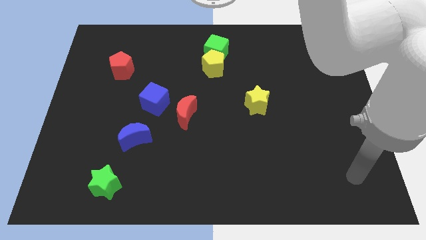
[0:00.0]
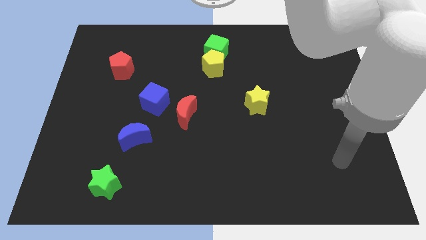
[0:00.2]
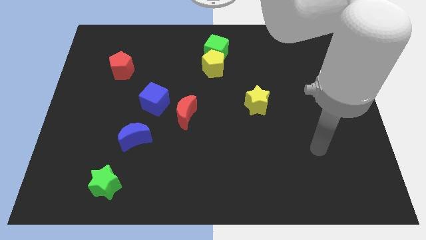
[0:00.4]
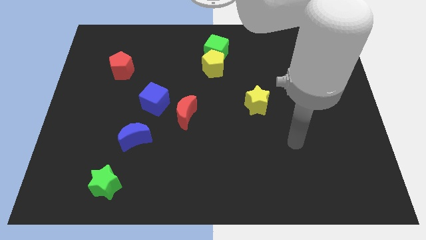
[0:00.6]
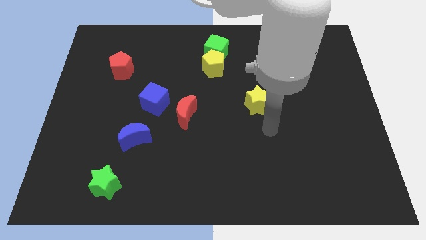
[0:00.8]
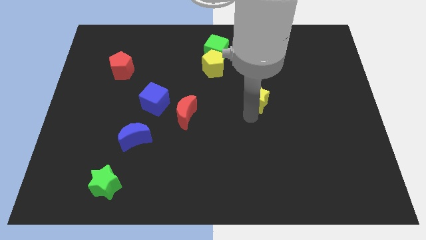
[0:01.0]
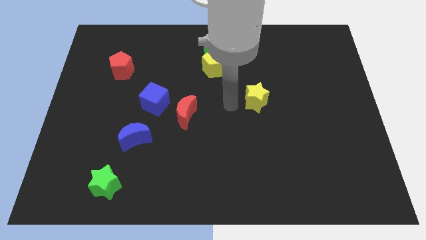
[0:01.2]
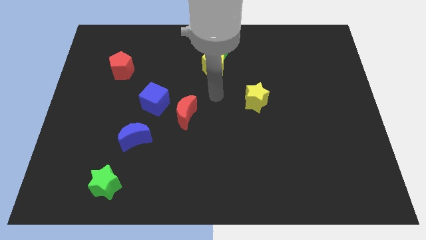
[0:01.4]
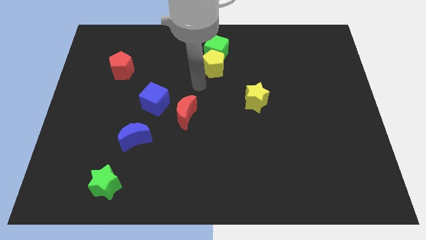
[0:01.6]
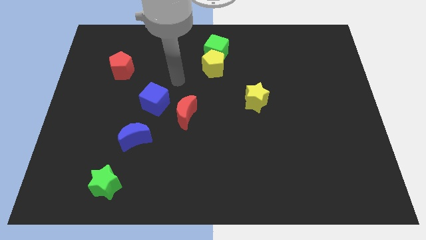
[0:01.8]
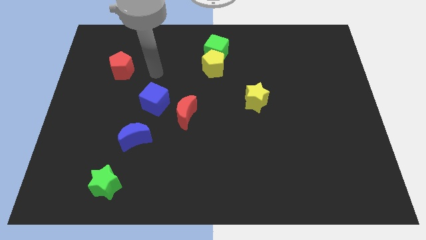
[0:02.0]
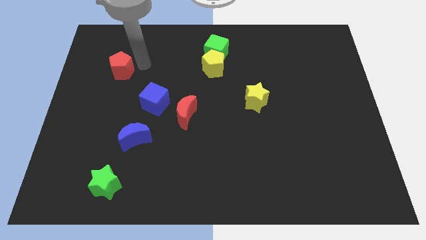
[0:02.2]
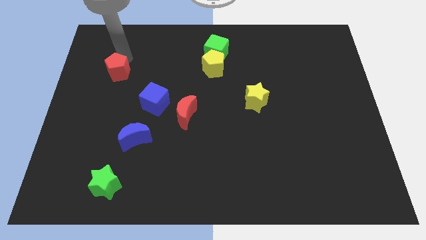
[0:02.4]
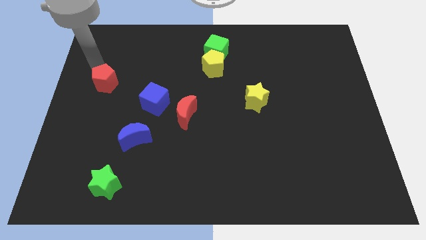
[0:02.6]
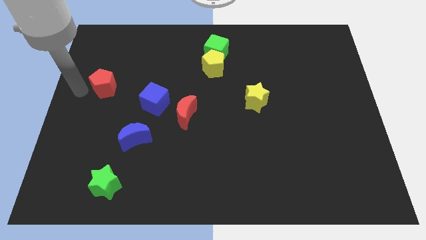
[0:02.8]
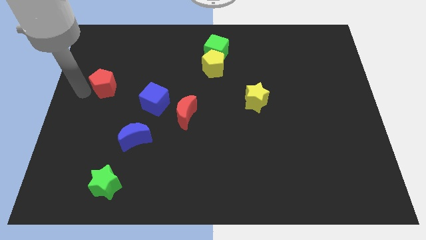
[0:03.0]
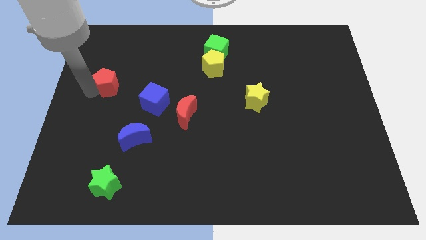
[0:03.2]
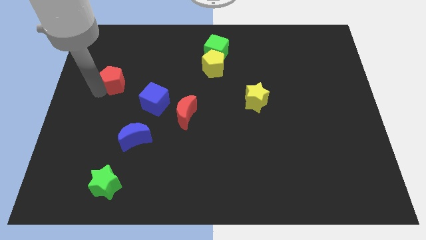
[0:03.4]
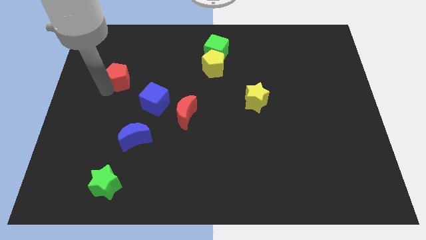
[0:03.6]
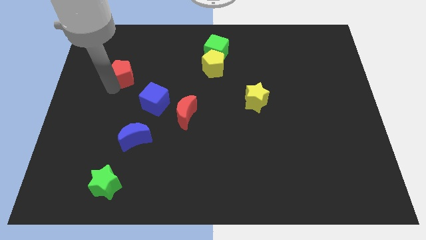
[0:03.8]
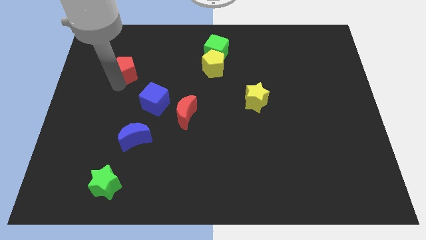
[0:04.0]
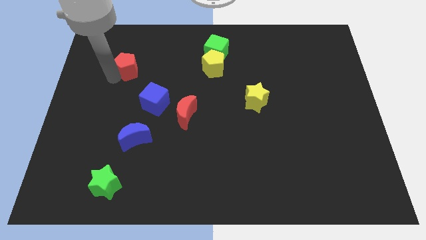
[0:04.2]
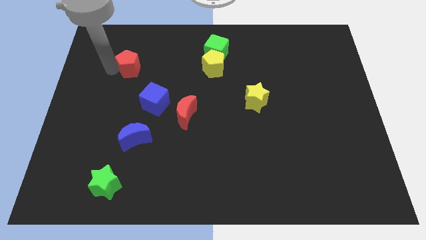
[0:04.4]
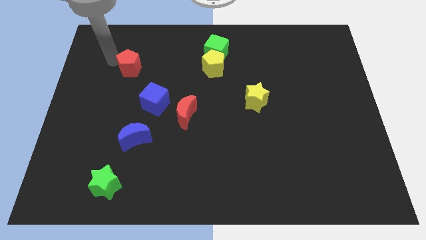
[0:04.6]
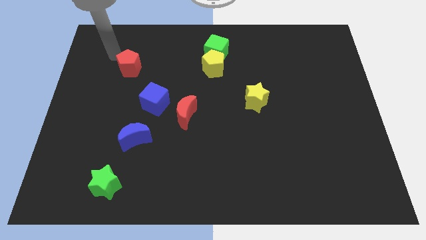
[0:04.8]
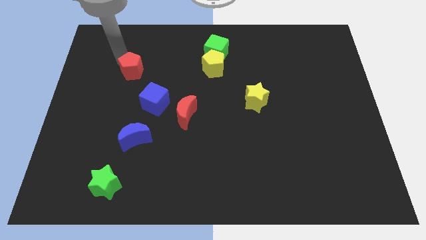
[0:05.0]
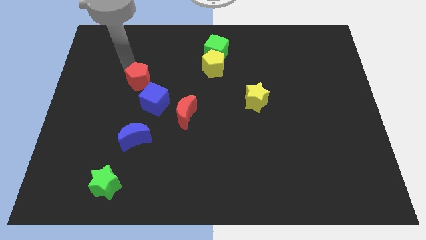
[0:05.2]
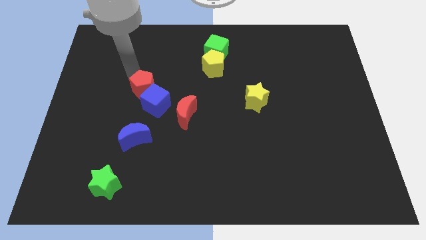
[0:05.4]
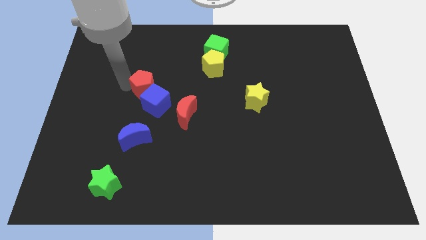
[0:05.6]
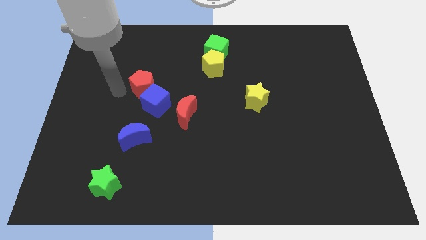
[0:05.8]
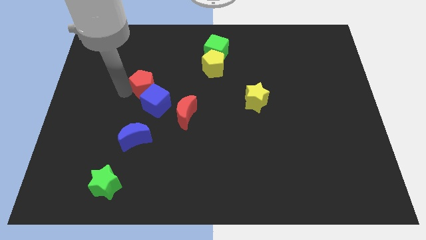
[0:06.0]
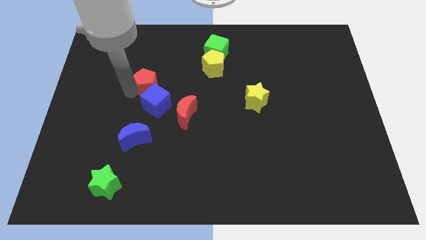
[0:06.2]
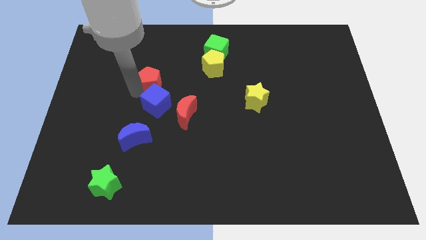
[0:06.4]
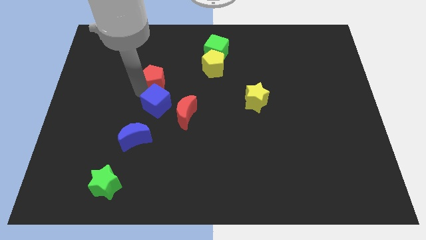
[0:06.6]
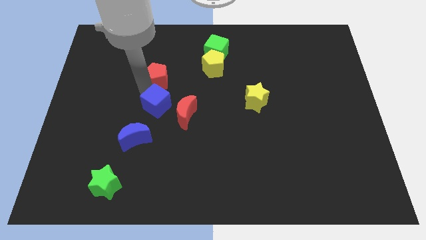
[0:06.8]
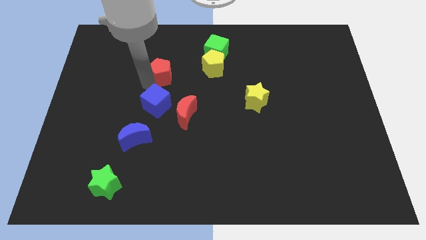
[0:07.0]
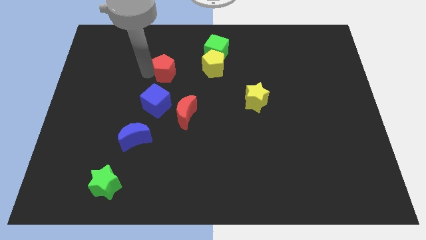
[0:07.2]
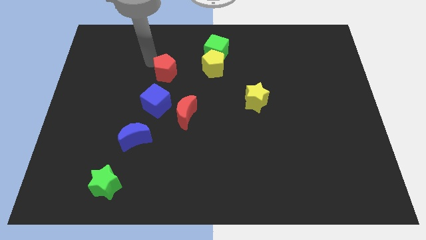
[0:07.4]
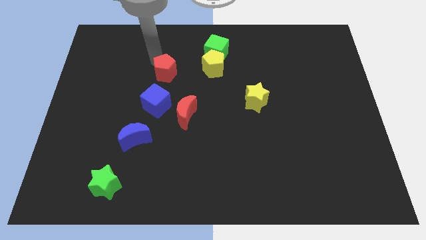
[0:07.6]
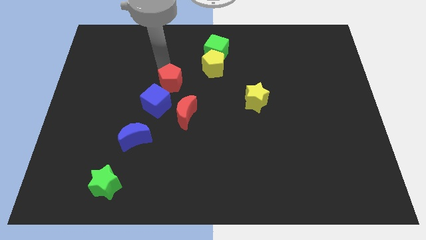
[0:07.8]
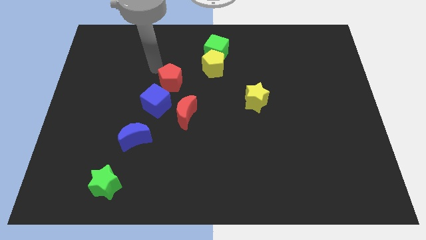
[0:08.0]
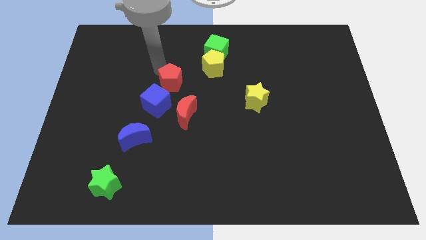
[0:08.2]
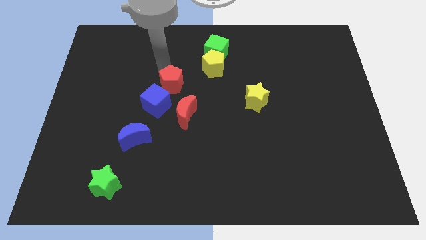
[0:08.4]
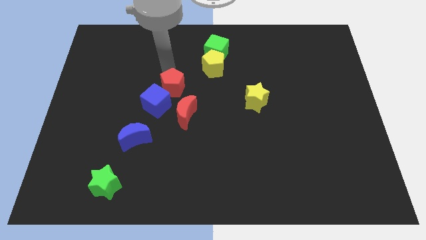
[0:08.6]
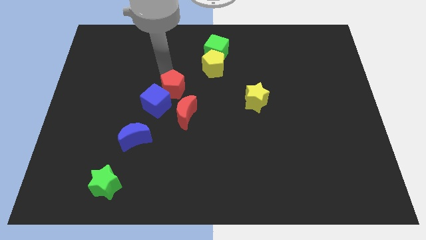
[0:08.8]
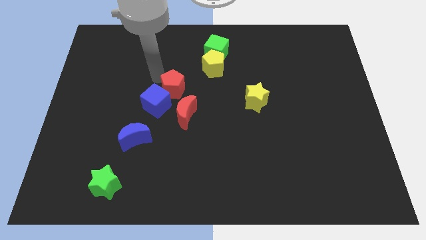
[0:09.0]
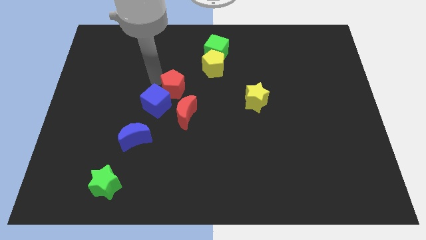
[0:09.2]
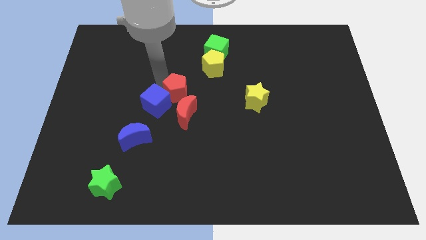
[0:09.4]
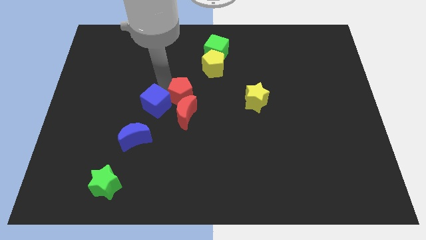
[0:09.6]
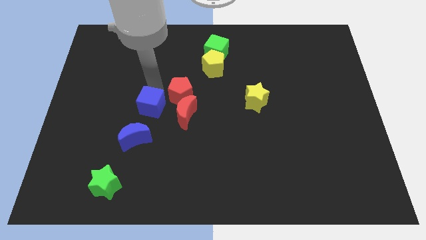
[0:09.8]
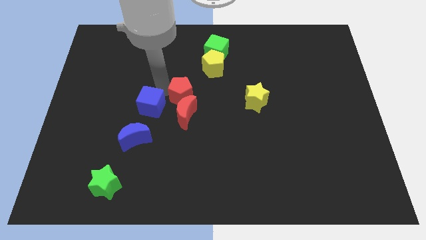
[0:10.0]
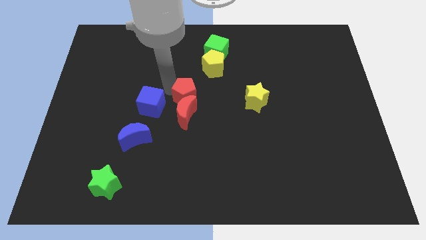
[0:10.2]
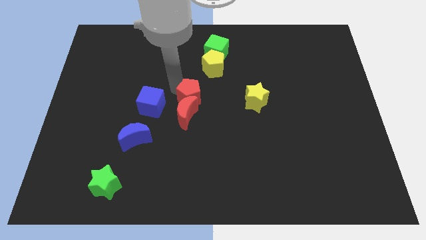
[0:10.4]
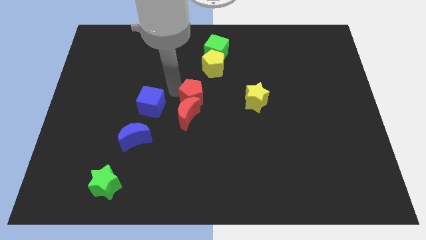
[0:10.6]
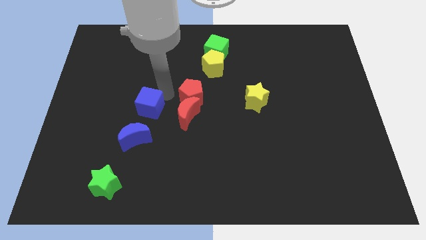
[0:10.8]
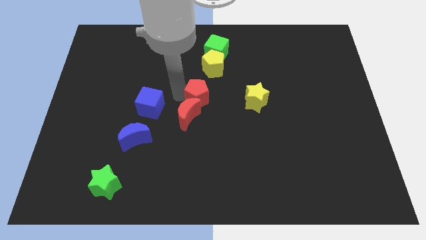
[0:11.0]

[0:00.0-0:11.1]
put the red pentagon to the bottom of the yellow pentagon

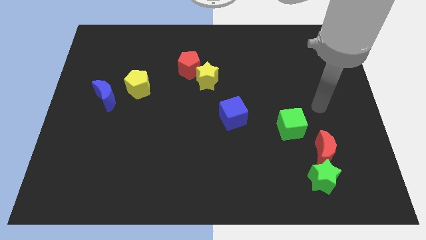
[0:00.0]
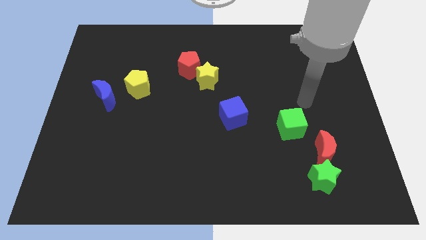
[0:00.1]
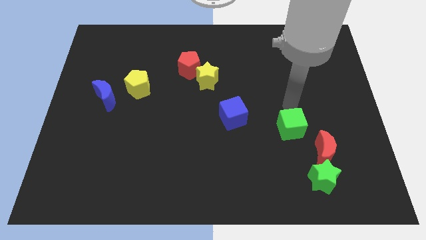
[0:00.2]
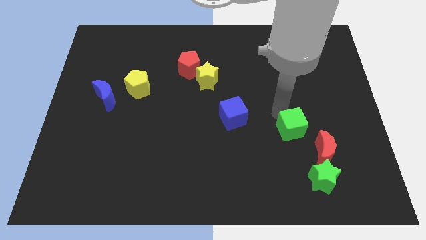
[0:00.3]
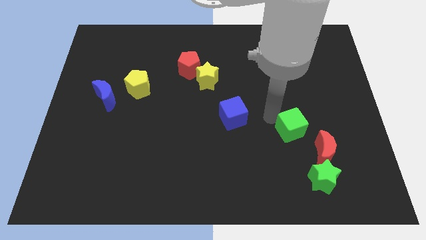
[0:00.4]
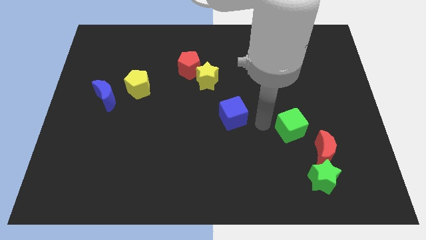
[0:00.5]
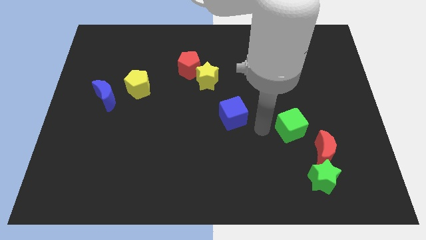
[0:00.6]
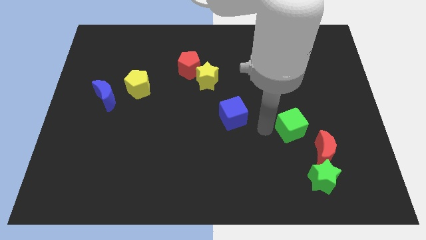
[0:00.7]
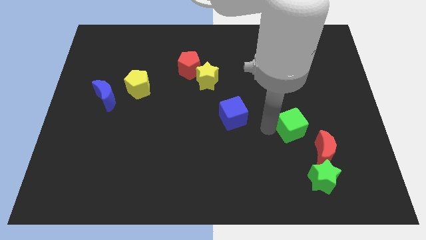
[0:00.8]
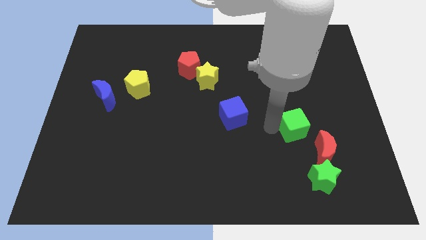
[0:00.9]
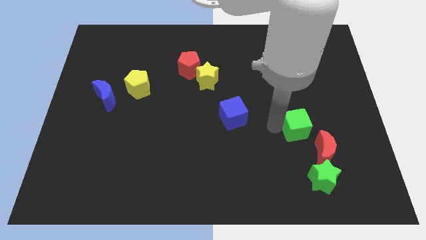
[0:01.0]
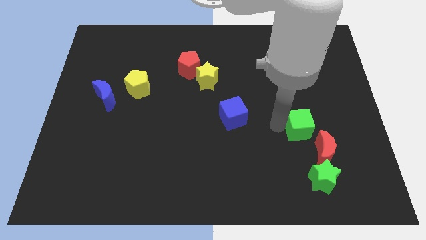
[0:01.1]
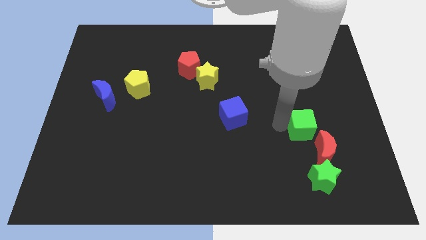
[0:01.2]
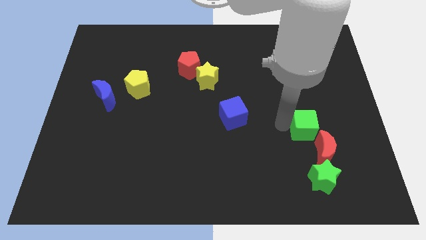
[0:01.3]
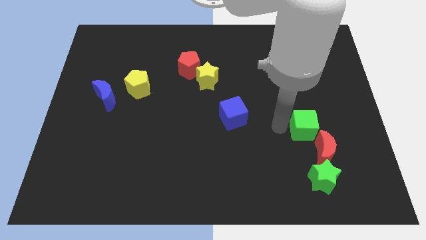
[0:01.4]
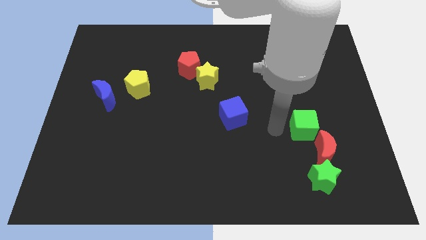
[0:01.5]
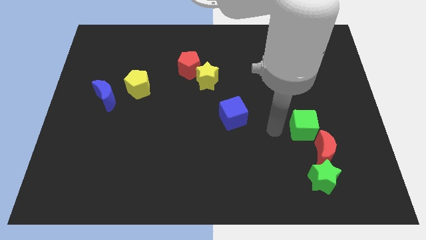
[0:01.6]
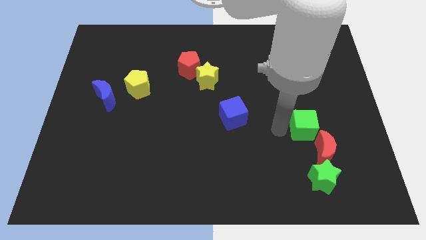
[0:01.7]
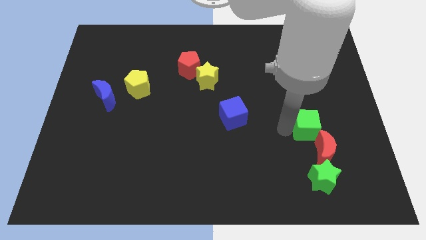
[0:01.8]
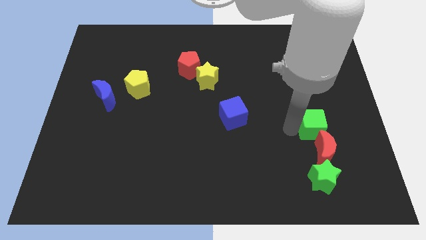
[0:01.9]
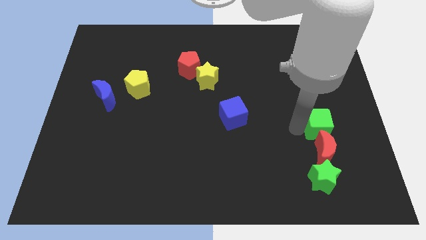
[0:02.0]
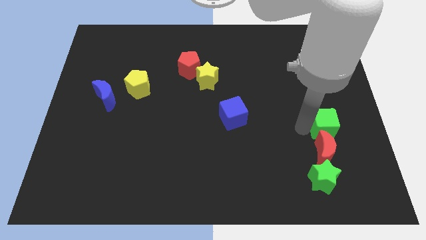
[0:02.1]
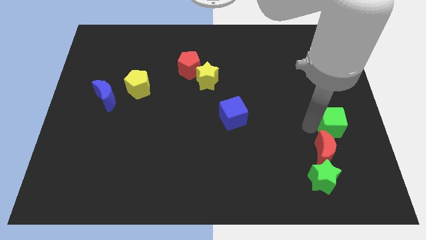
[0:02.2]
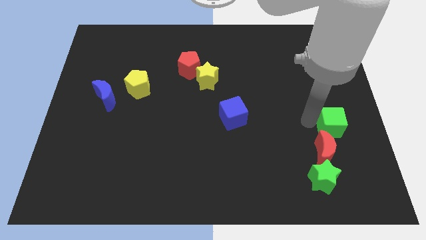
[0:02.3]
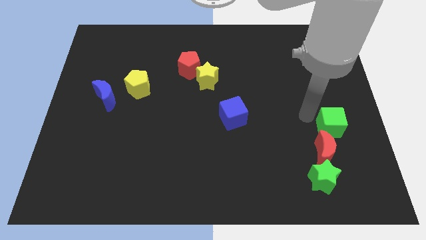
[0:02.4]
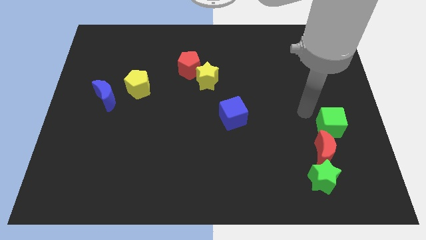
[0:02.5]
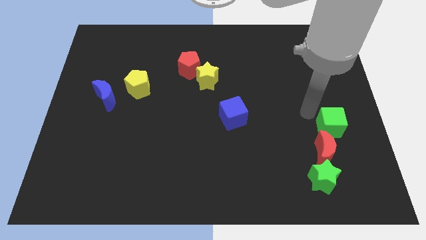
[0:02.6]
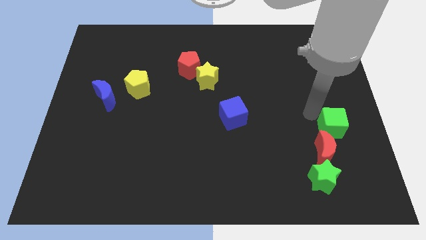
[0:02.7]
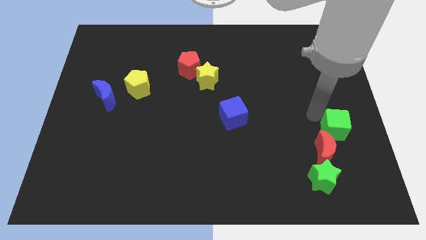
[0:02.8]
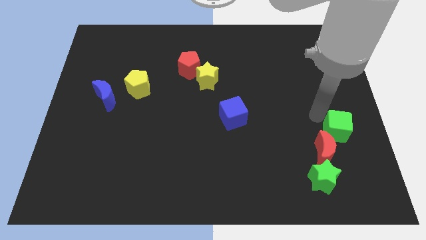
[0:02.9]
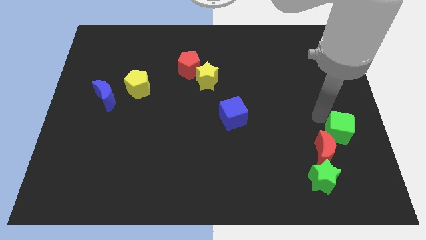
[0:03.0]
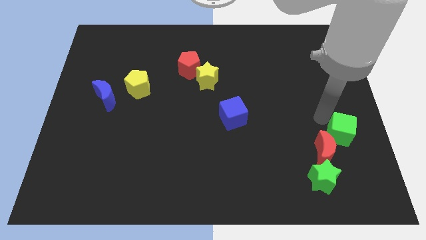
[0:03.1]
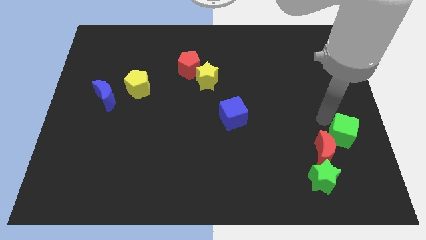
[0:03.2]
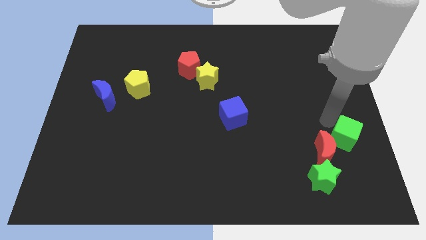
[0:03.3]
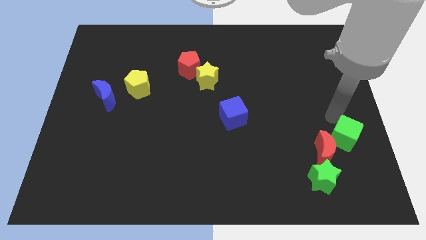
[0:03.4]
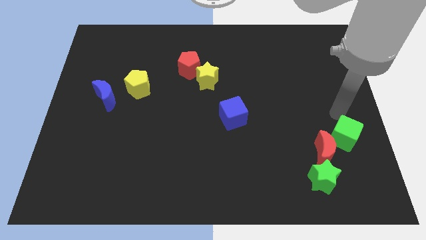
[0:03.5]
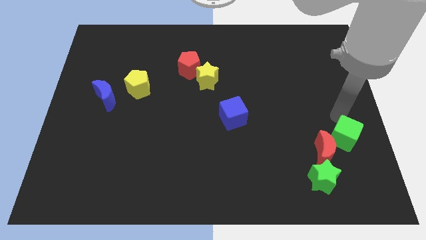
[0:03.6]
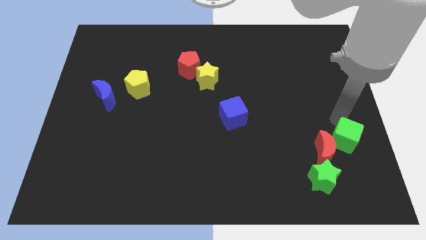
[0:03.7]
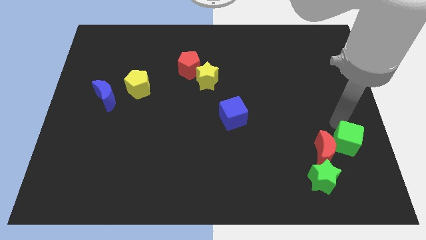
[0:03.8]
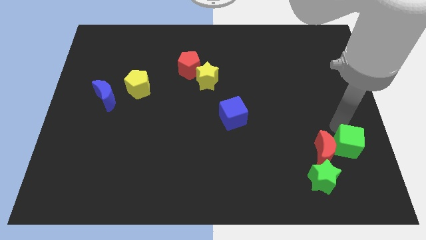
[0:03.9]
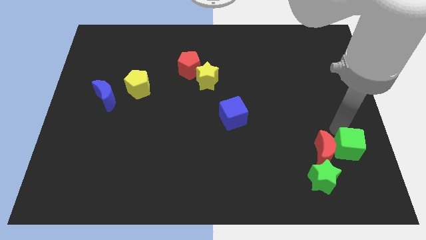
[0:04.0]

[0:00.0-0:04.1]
put the green cube to the bottom right side of the red moon
